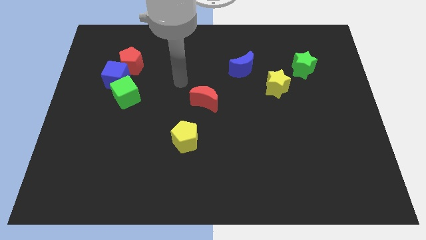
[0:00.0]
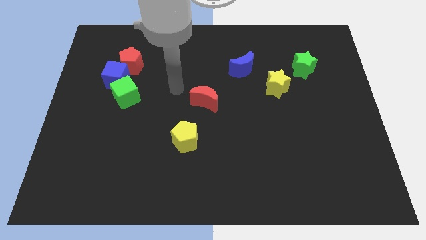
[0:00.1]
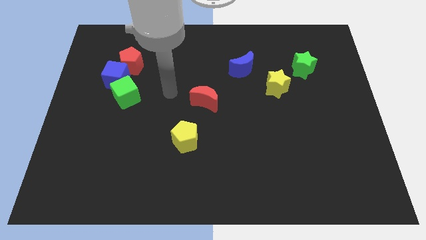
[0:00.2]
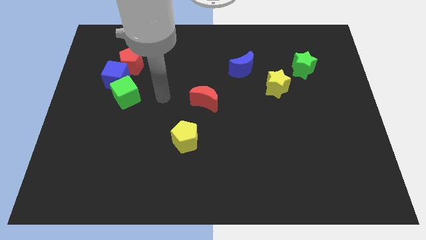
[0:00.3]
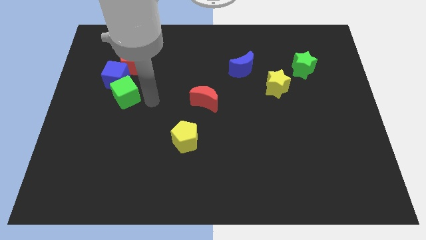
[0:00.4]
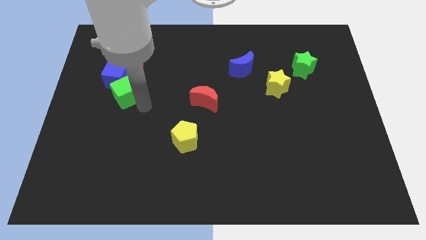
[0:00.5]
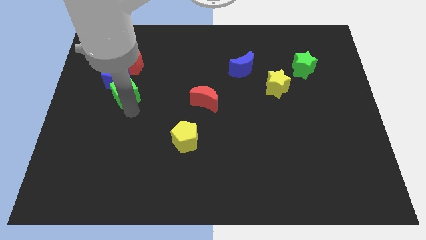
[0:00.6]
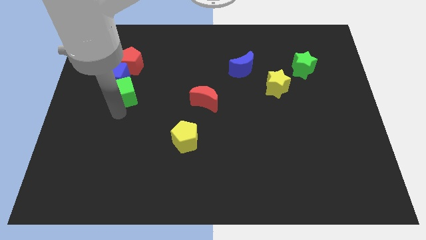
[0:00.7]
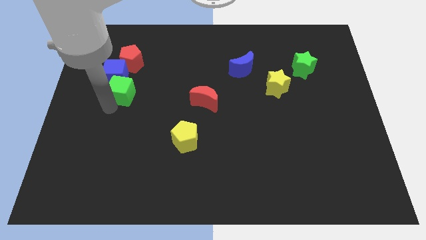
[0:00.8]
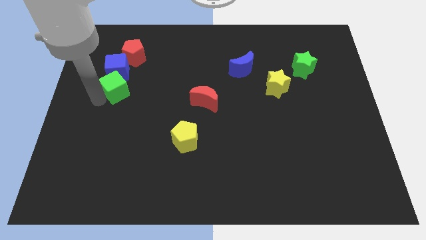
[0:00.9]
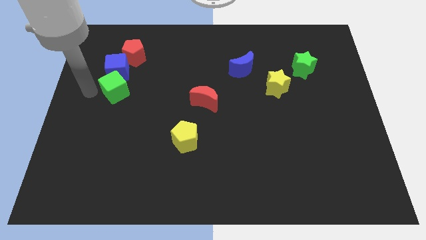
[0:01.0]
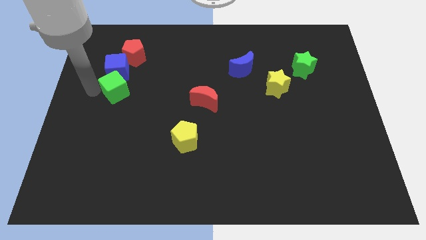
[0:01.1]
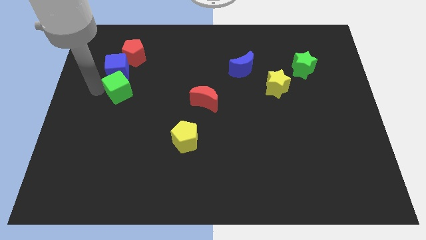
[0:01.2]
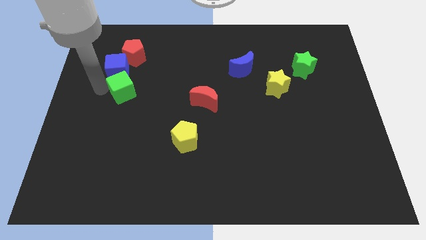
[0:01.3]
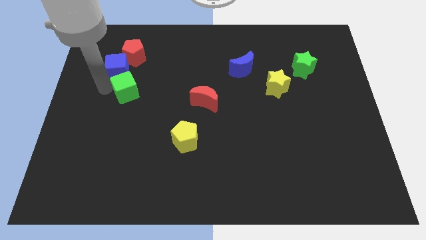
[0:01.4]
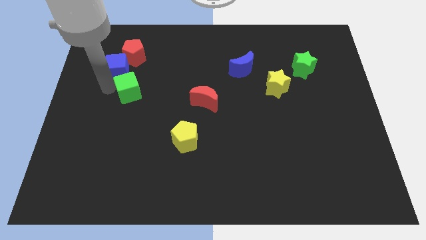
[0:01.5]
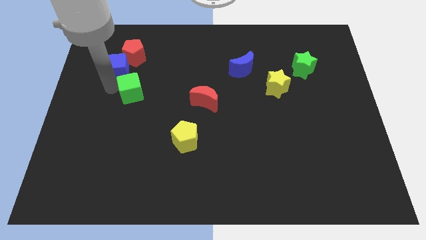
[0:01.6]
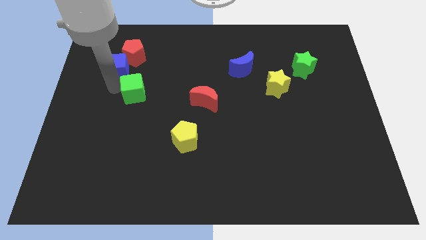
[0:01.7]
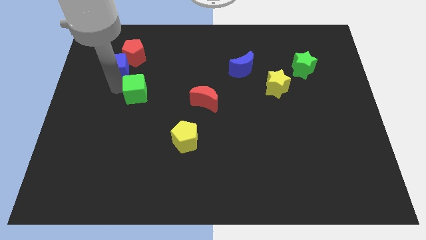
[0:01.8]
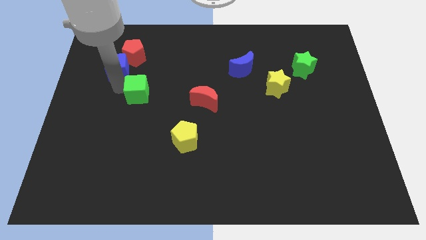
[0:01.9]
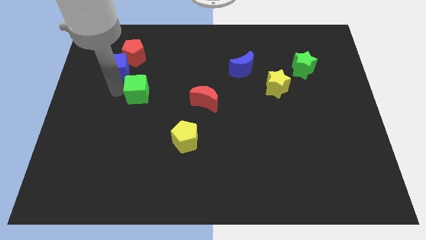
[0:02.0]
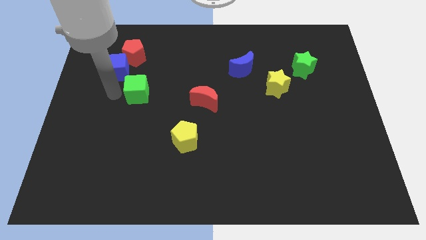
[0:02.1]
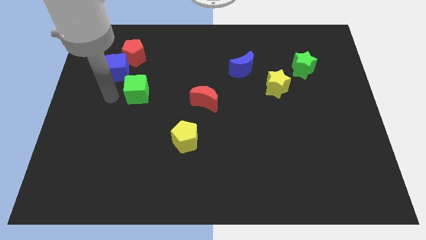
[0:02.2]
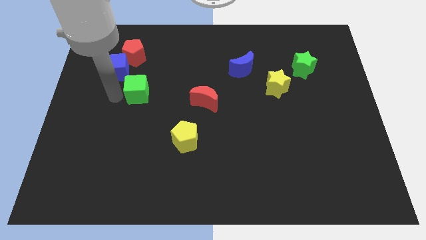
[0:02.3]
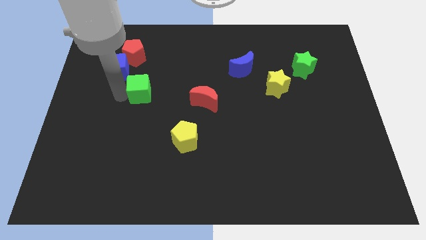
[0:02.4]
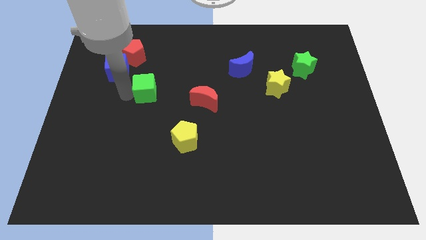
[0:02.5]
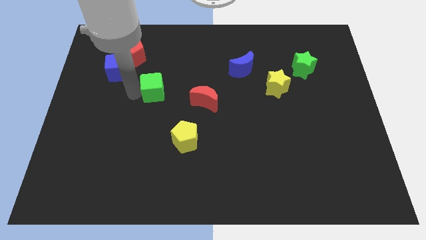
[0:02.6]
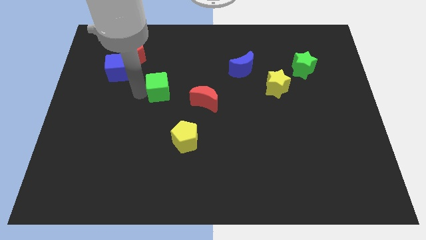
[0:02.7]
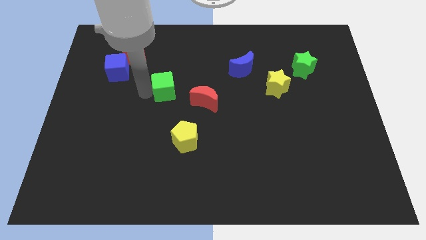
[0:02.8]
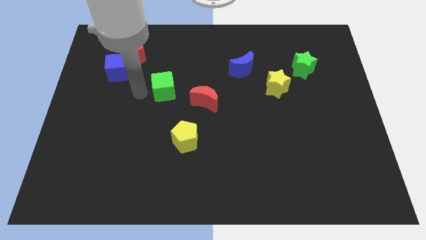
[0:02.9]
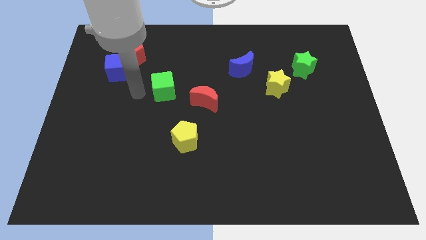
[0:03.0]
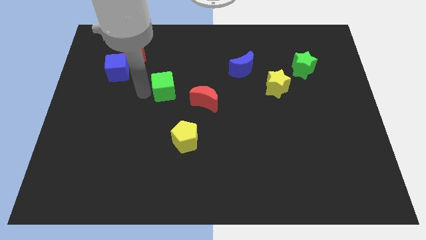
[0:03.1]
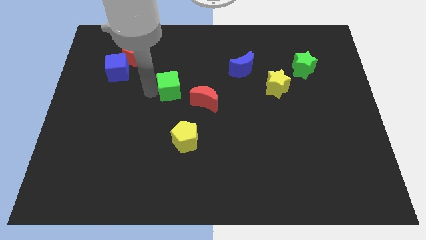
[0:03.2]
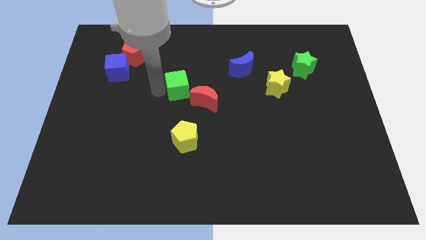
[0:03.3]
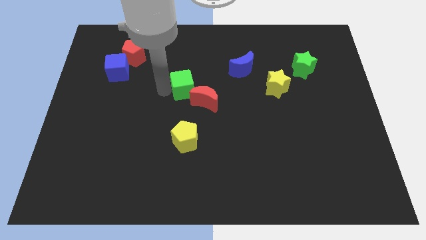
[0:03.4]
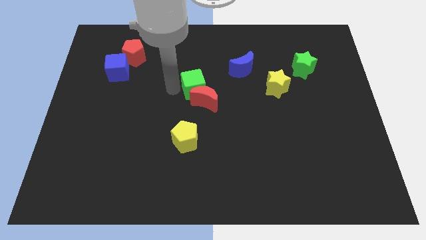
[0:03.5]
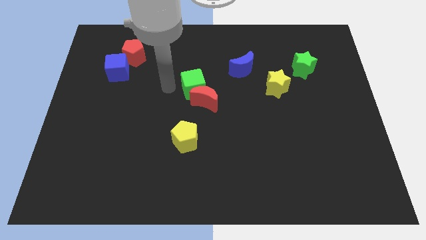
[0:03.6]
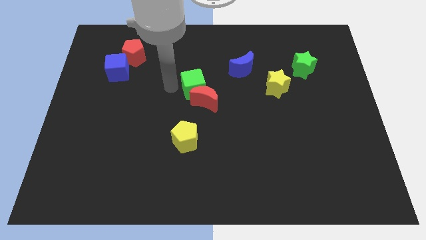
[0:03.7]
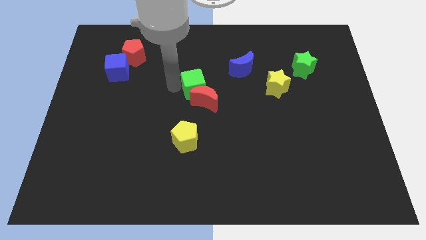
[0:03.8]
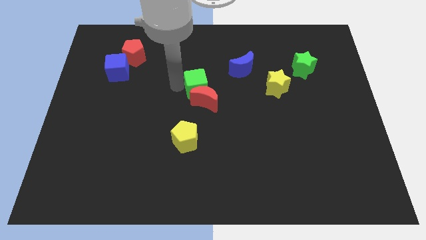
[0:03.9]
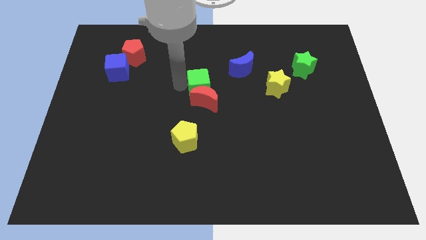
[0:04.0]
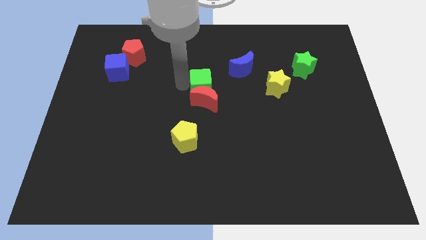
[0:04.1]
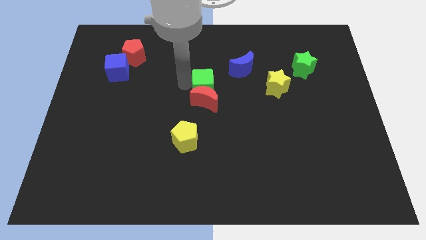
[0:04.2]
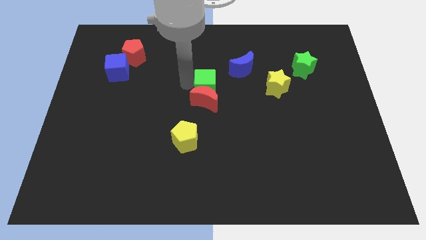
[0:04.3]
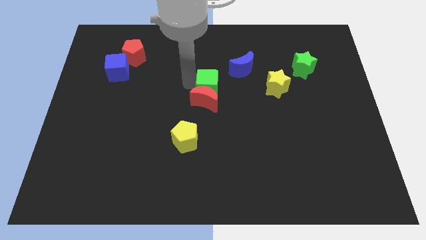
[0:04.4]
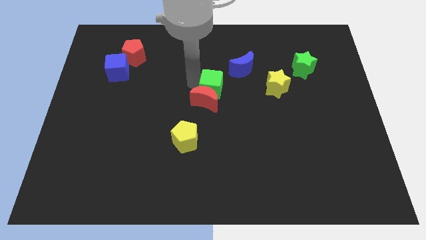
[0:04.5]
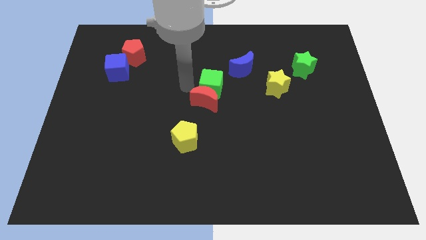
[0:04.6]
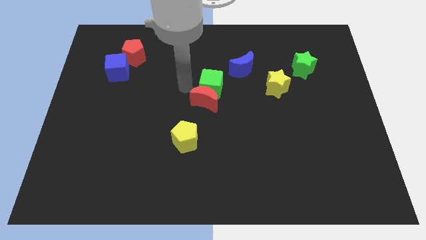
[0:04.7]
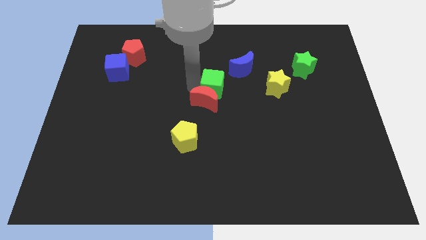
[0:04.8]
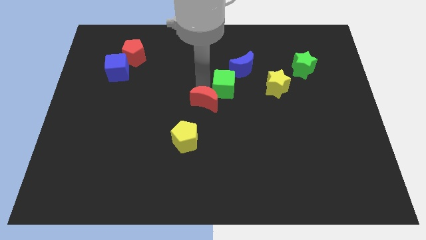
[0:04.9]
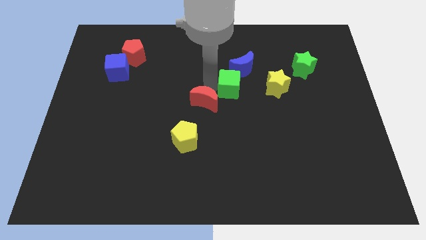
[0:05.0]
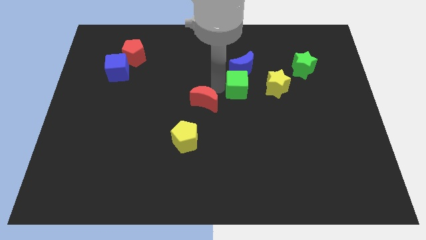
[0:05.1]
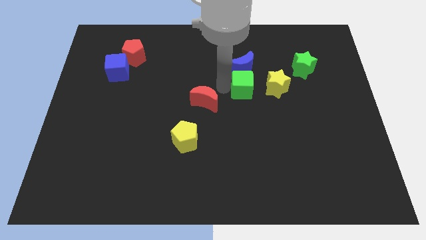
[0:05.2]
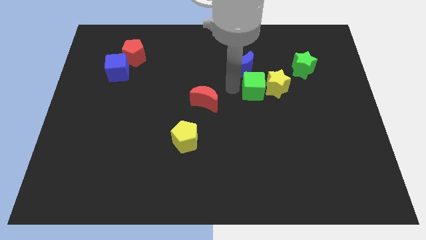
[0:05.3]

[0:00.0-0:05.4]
put the green cube towards the yellow star

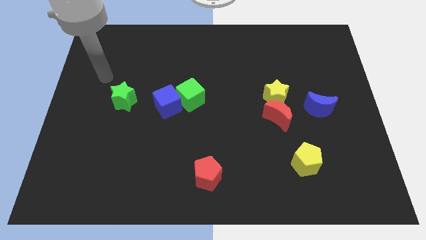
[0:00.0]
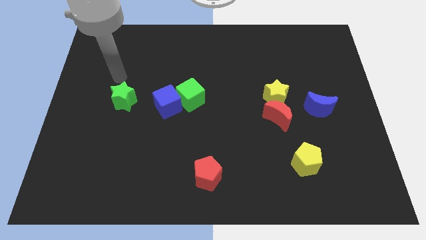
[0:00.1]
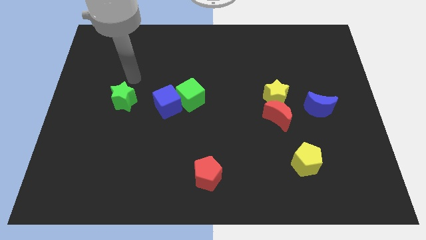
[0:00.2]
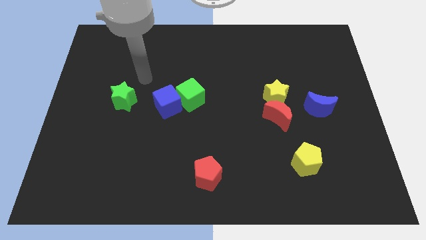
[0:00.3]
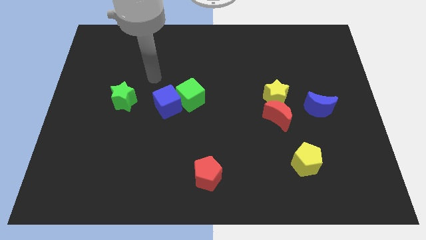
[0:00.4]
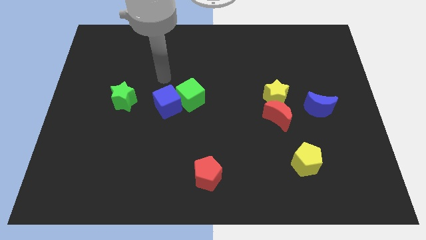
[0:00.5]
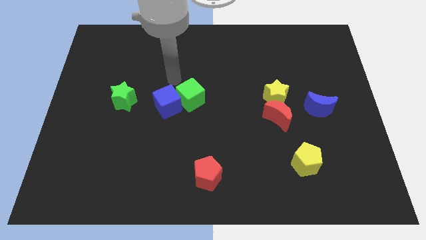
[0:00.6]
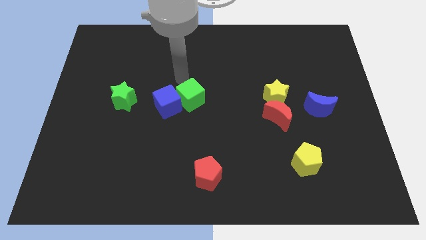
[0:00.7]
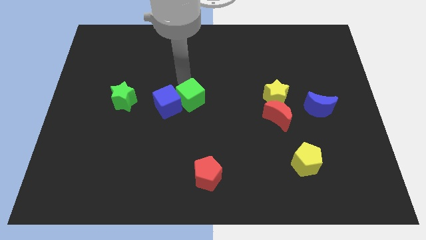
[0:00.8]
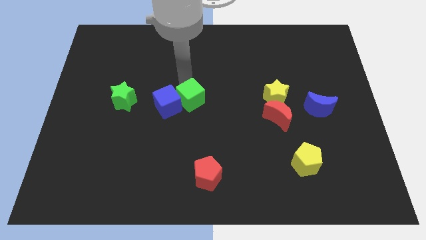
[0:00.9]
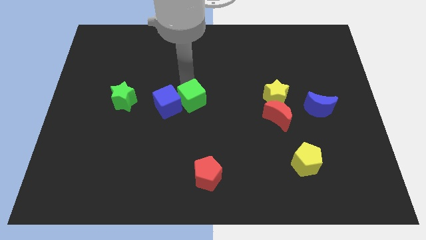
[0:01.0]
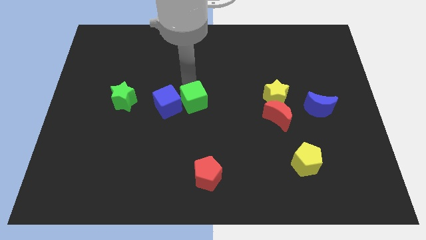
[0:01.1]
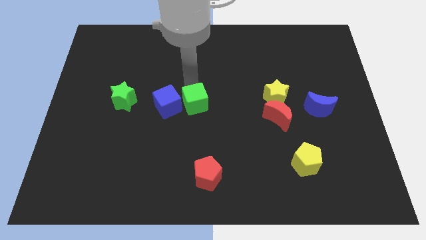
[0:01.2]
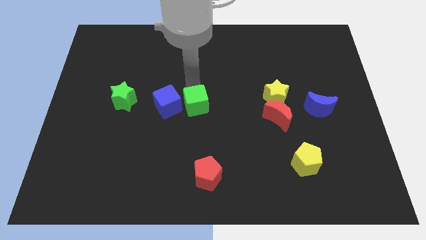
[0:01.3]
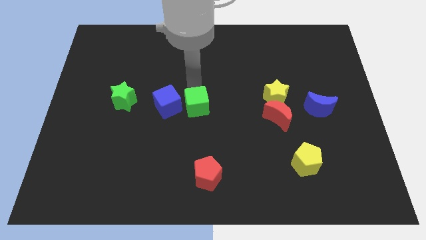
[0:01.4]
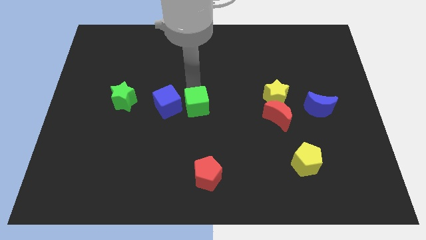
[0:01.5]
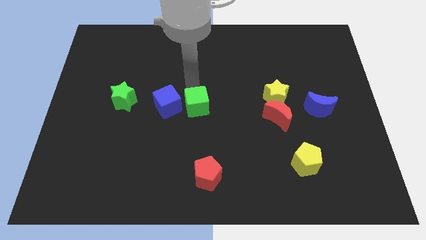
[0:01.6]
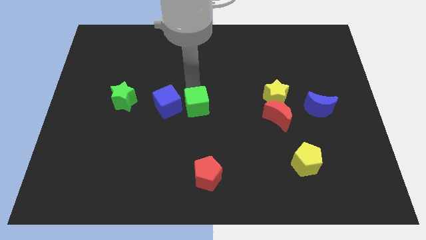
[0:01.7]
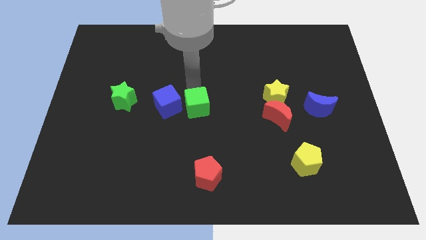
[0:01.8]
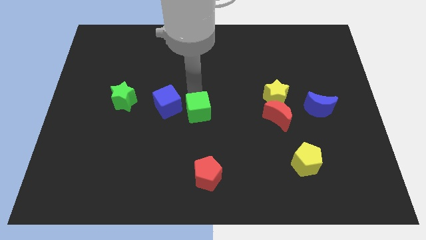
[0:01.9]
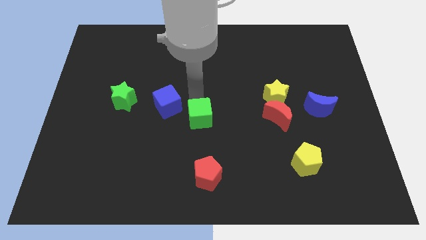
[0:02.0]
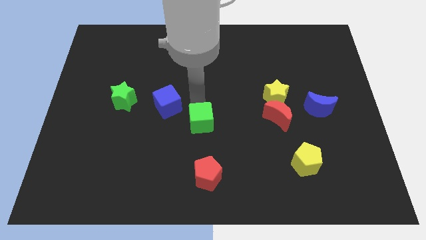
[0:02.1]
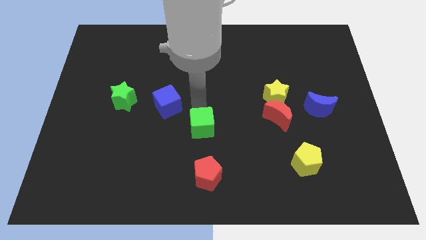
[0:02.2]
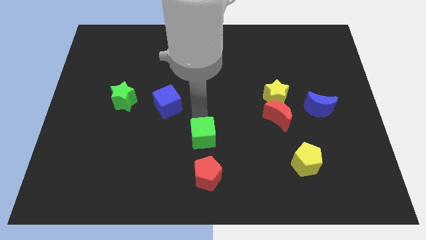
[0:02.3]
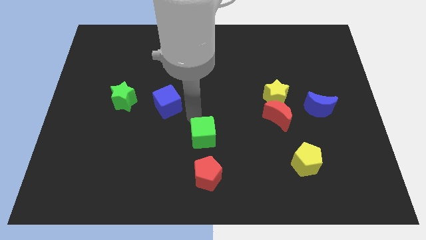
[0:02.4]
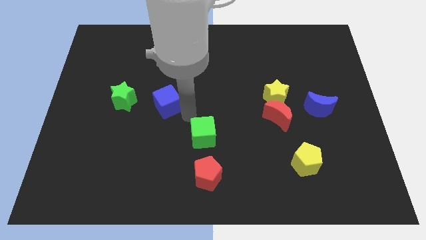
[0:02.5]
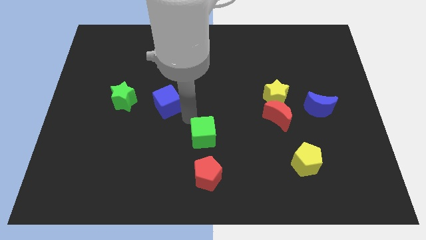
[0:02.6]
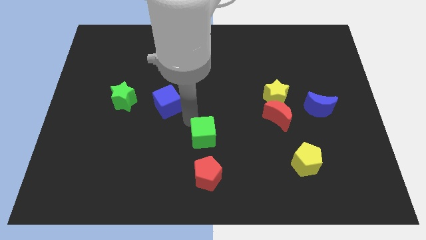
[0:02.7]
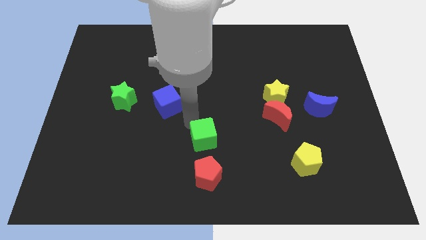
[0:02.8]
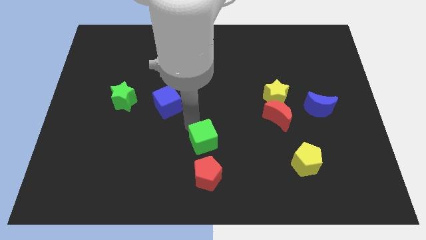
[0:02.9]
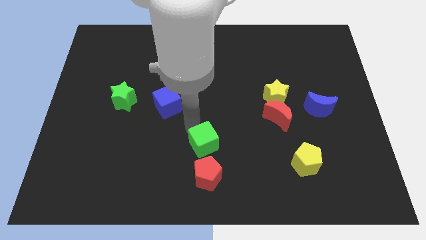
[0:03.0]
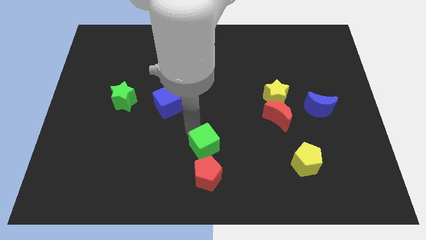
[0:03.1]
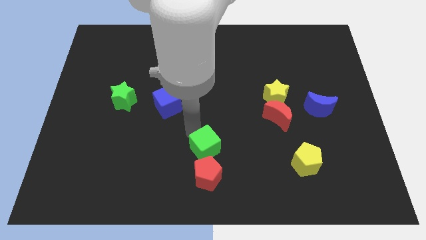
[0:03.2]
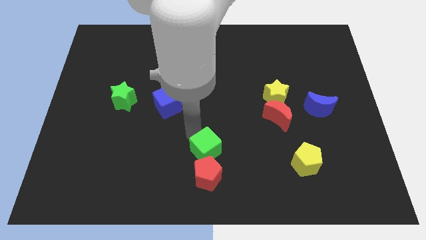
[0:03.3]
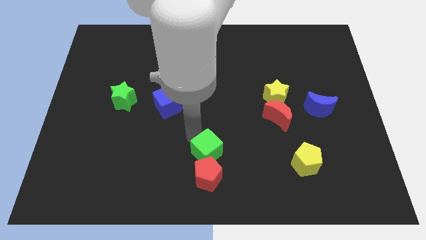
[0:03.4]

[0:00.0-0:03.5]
move the green cube towards the red pentagon
